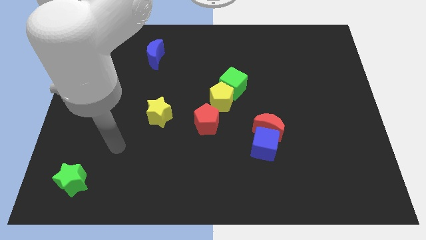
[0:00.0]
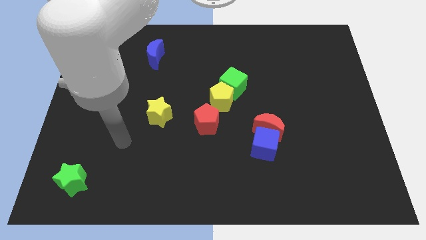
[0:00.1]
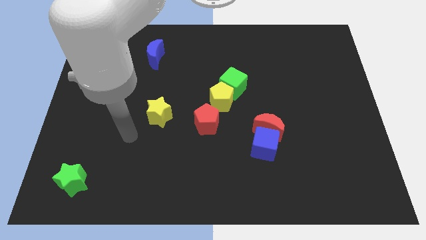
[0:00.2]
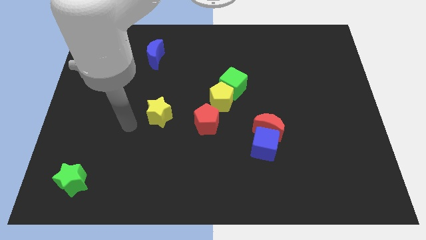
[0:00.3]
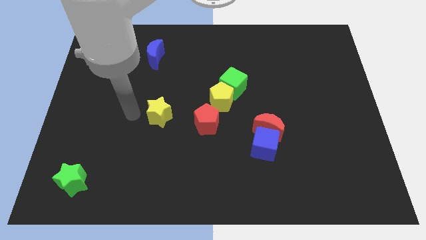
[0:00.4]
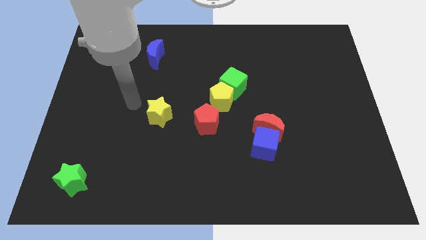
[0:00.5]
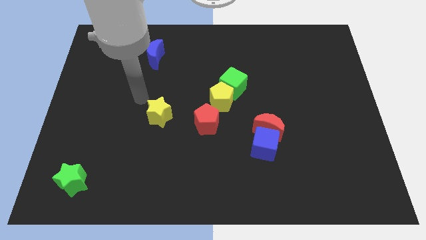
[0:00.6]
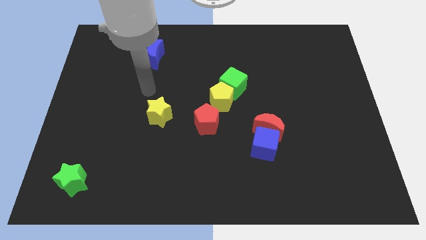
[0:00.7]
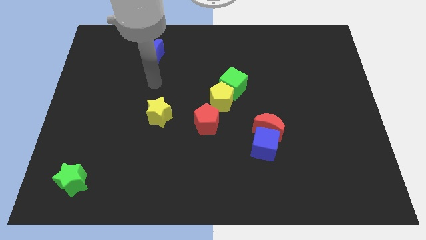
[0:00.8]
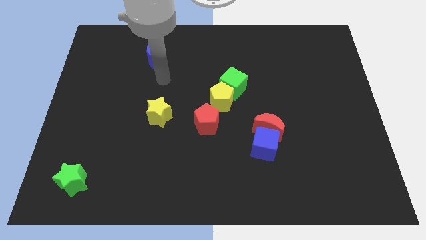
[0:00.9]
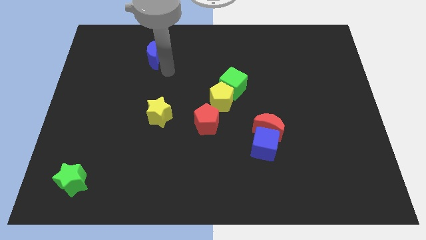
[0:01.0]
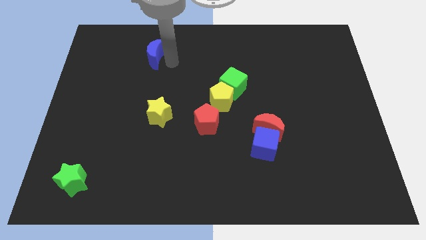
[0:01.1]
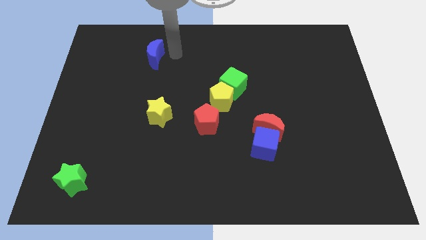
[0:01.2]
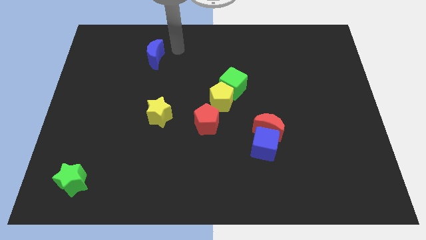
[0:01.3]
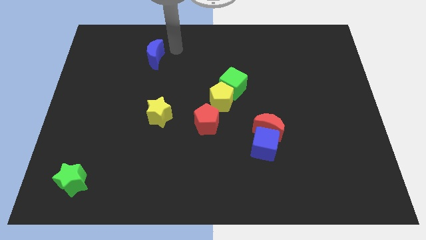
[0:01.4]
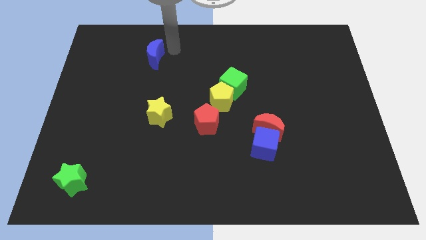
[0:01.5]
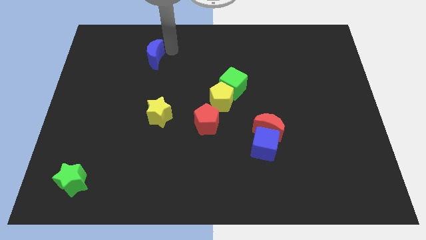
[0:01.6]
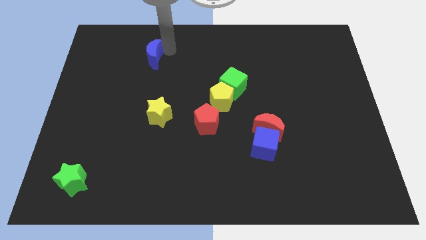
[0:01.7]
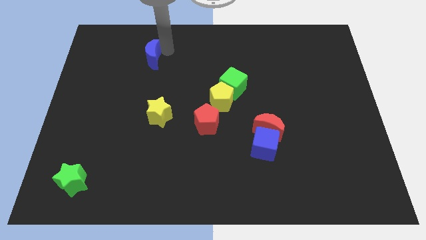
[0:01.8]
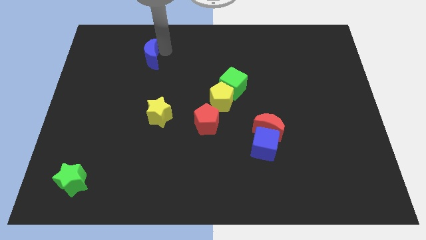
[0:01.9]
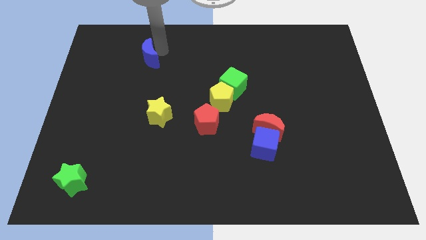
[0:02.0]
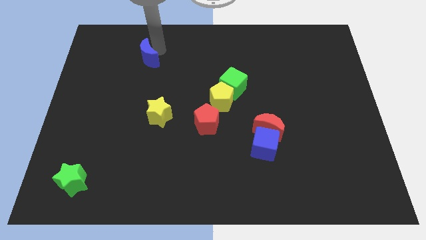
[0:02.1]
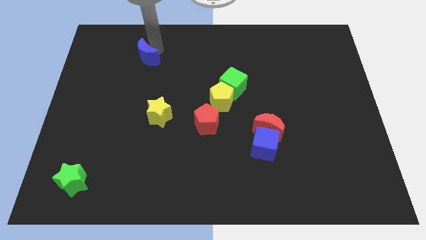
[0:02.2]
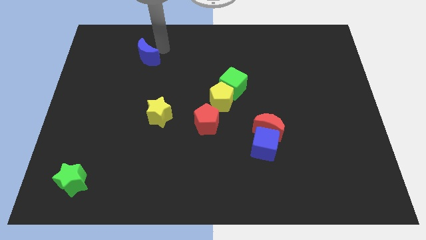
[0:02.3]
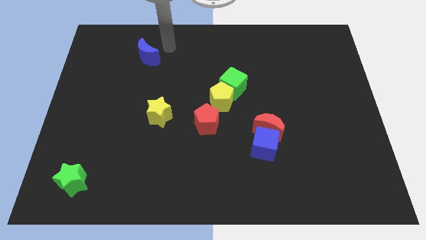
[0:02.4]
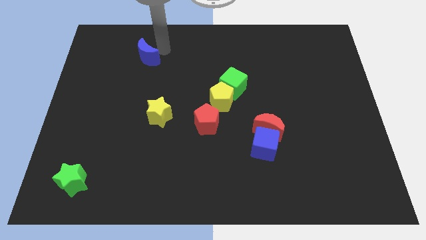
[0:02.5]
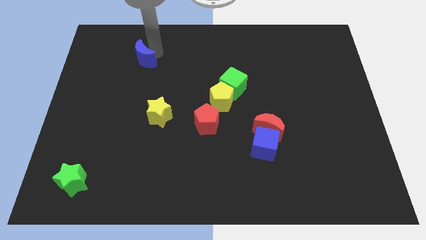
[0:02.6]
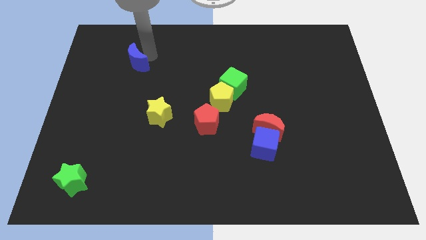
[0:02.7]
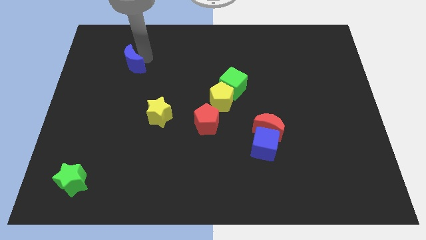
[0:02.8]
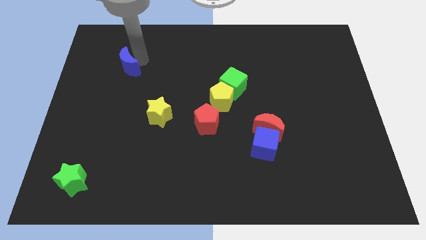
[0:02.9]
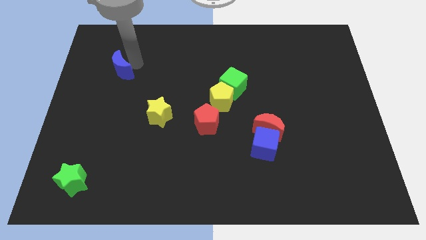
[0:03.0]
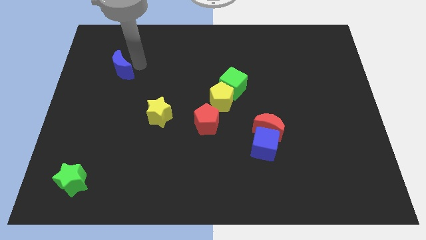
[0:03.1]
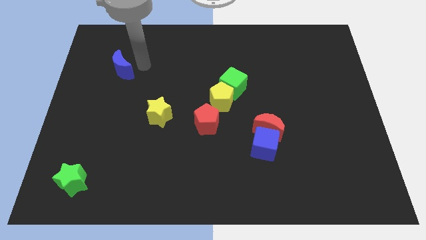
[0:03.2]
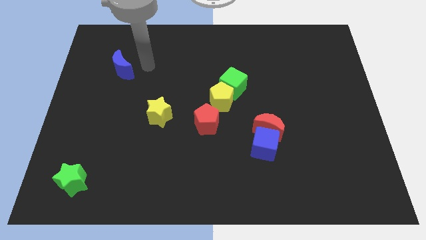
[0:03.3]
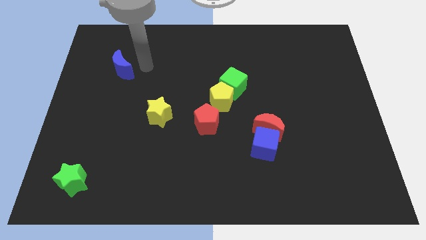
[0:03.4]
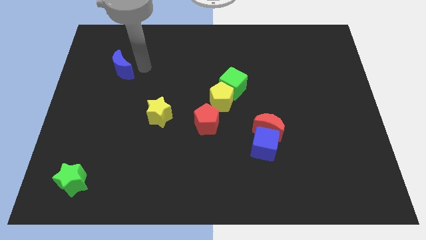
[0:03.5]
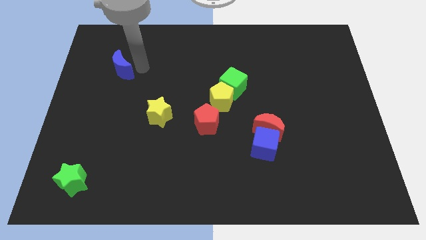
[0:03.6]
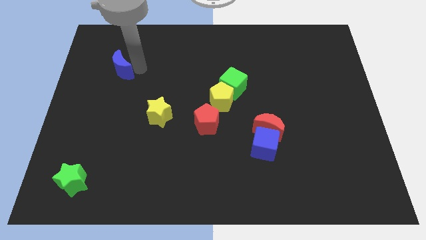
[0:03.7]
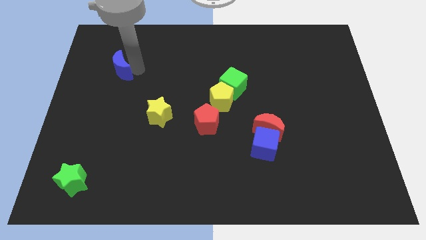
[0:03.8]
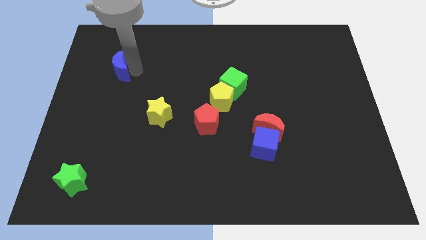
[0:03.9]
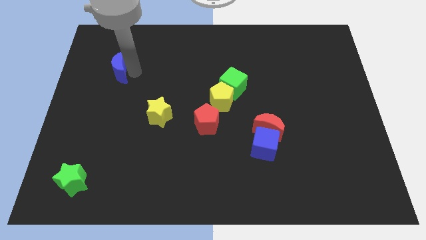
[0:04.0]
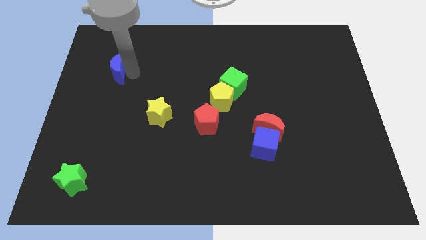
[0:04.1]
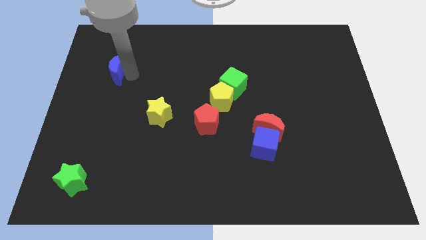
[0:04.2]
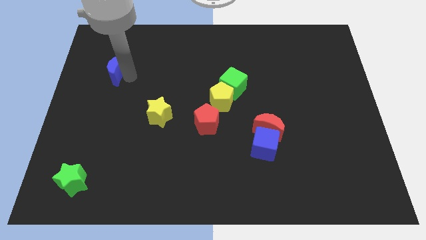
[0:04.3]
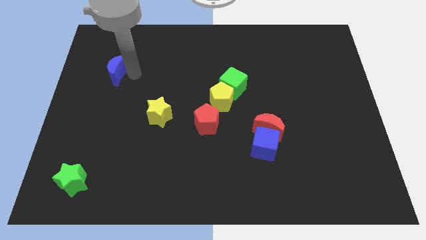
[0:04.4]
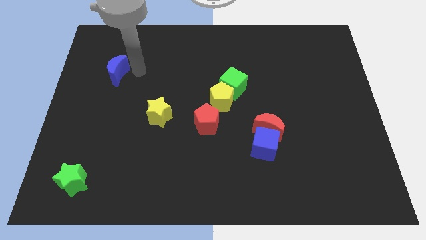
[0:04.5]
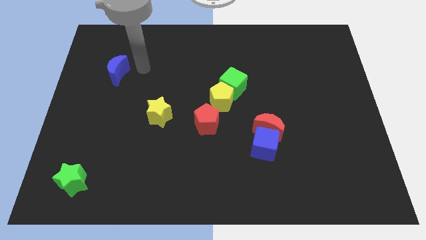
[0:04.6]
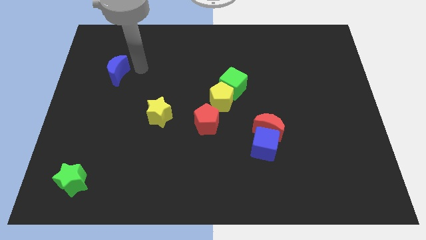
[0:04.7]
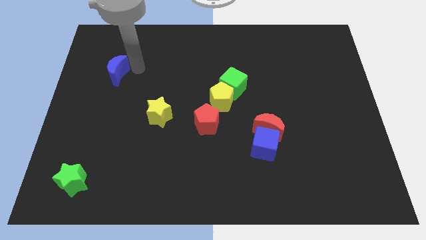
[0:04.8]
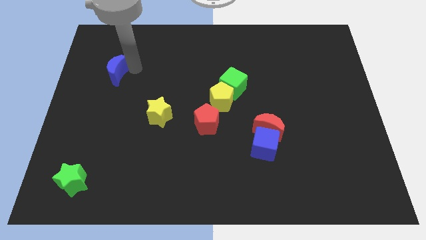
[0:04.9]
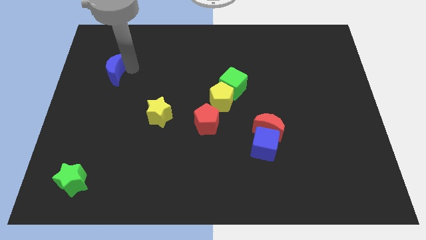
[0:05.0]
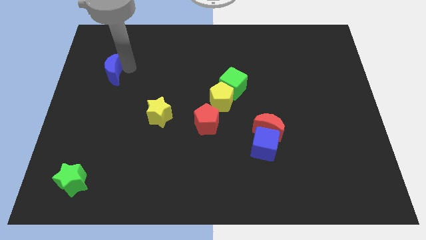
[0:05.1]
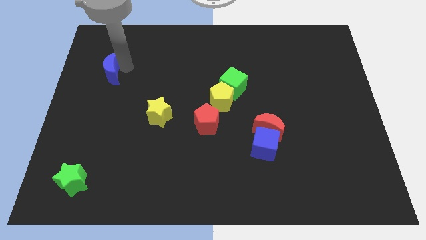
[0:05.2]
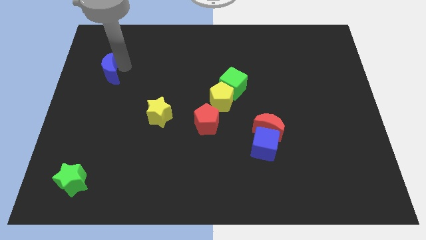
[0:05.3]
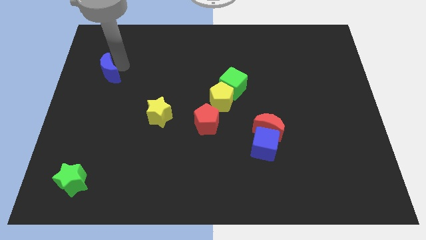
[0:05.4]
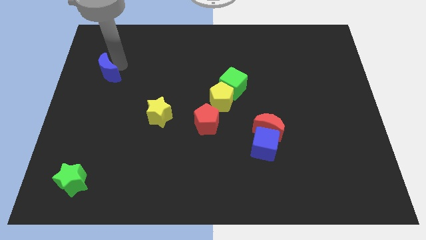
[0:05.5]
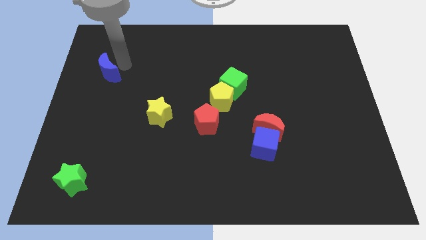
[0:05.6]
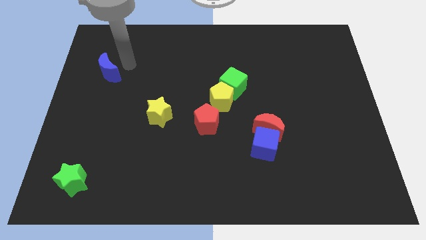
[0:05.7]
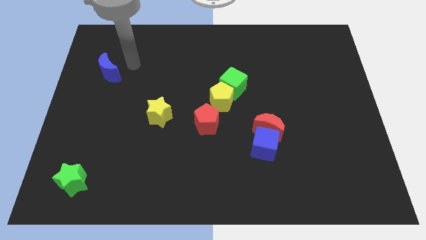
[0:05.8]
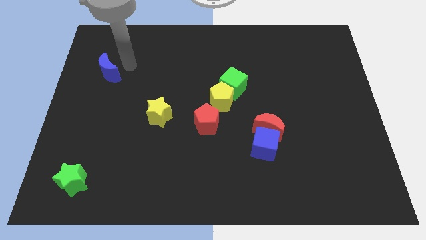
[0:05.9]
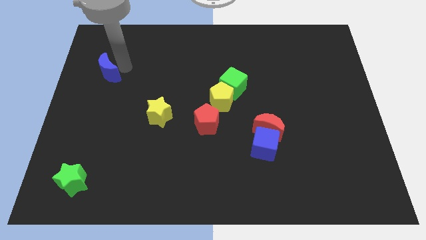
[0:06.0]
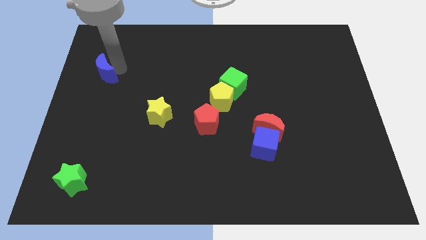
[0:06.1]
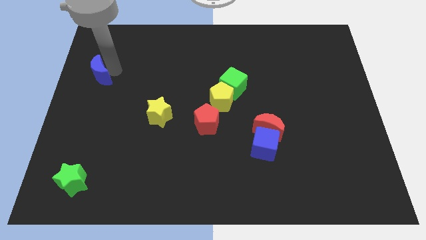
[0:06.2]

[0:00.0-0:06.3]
push the blue moon to the left side
